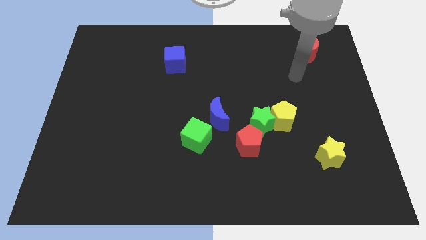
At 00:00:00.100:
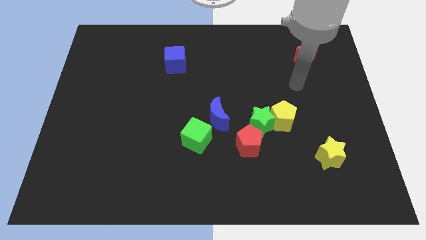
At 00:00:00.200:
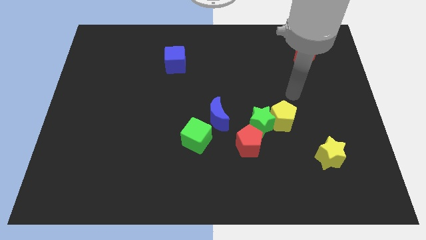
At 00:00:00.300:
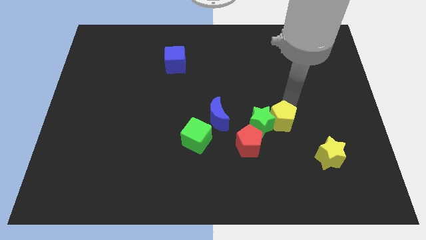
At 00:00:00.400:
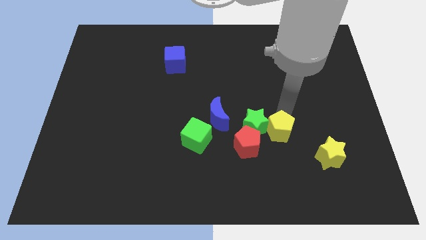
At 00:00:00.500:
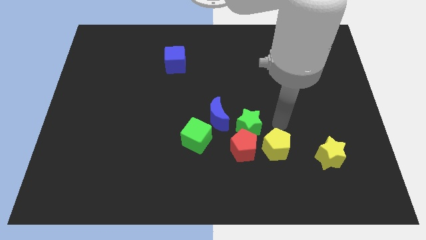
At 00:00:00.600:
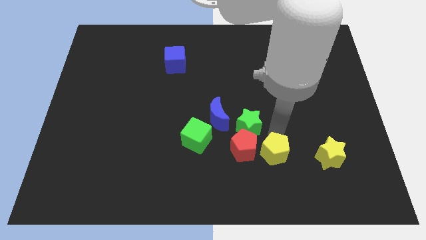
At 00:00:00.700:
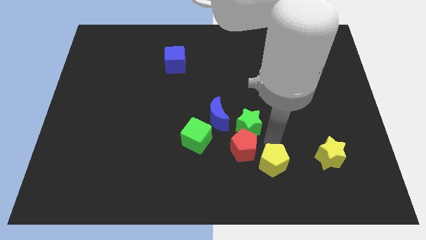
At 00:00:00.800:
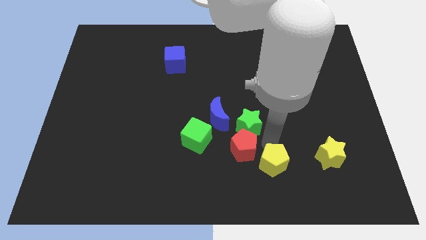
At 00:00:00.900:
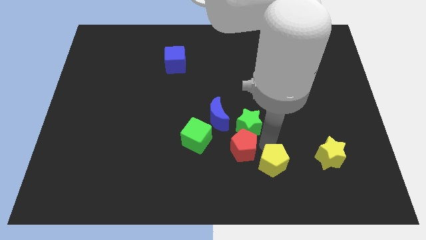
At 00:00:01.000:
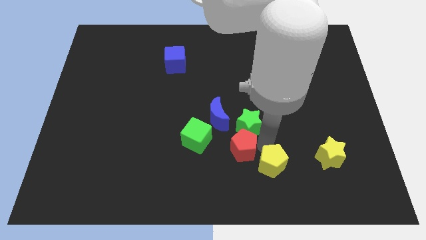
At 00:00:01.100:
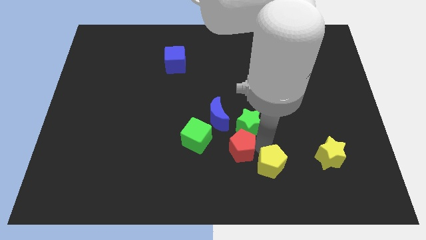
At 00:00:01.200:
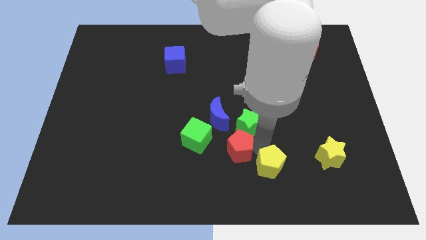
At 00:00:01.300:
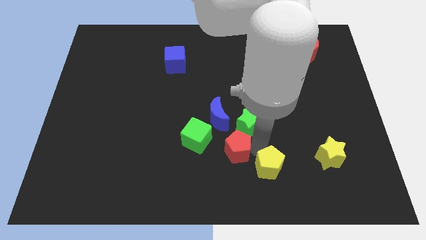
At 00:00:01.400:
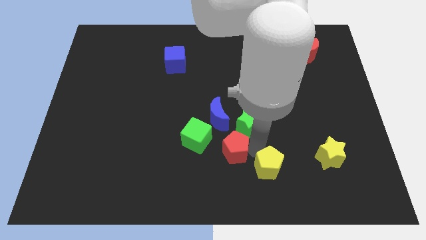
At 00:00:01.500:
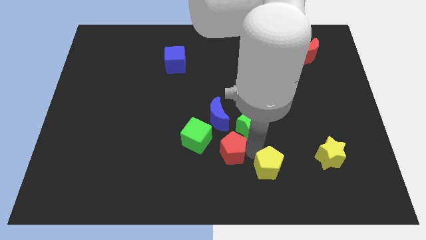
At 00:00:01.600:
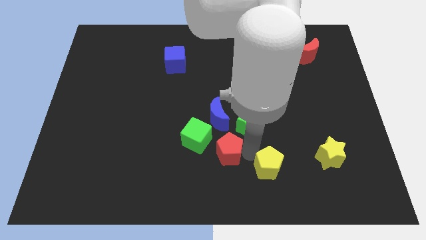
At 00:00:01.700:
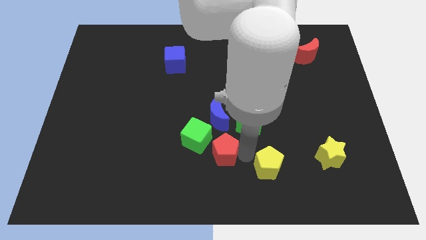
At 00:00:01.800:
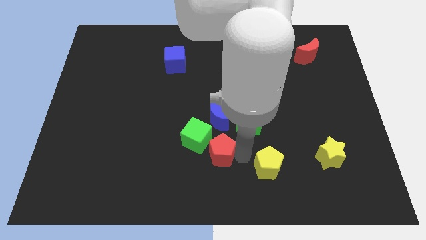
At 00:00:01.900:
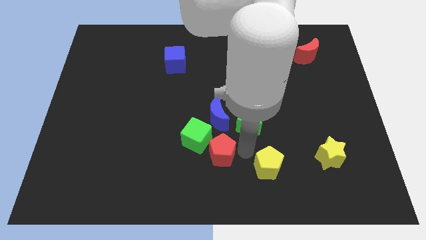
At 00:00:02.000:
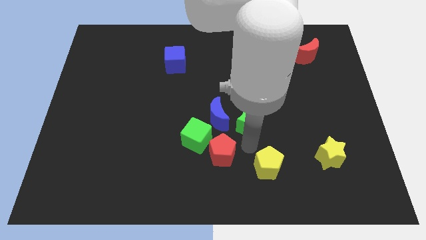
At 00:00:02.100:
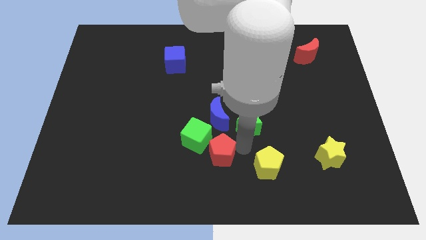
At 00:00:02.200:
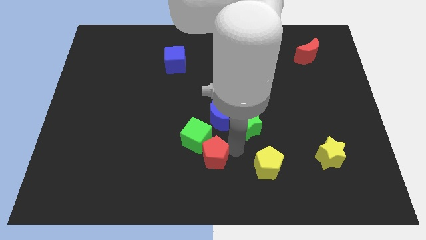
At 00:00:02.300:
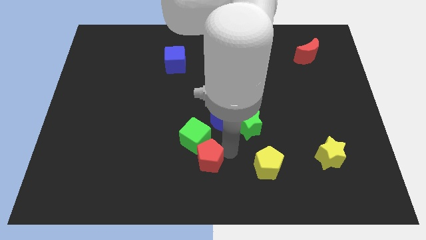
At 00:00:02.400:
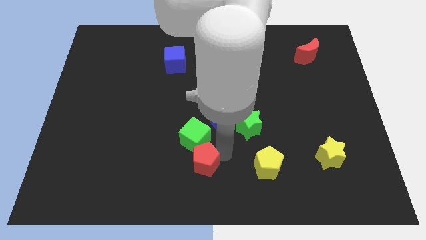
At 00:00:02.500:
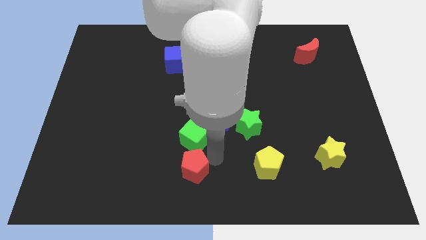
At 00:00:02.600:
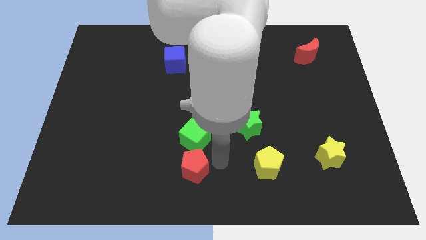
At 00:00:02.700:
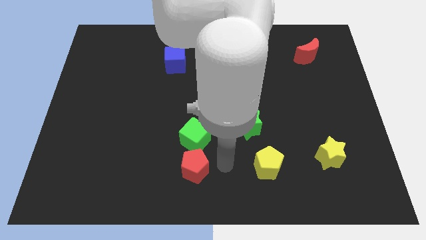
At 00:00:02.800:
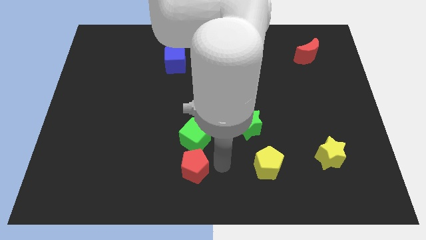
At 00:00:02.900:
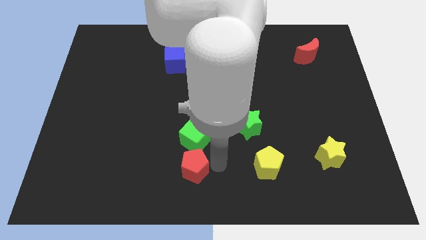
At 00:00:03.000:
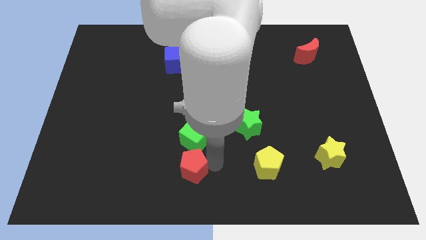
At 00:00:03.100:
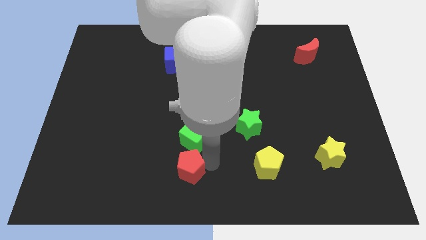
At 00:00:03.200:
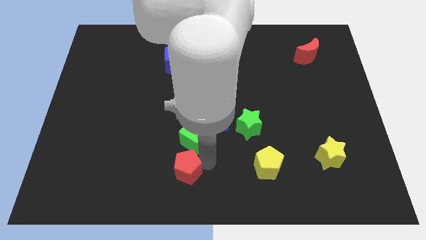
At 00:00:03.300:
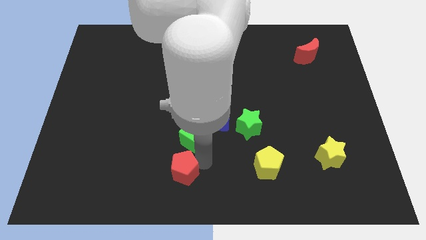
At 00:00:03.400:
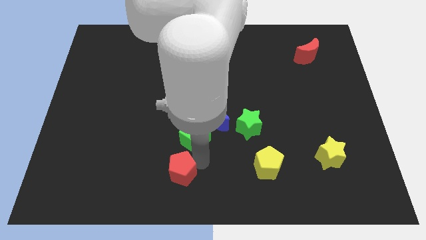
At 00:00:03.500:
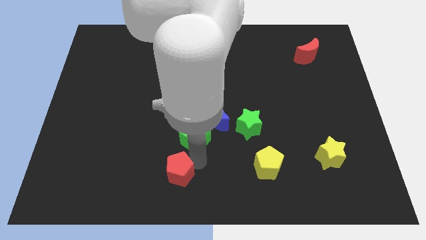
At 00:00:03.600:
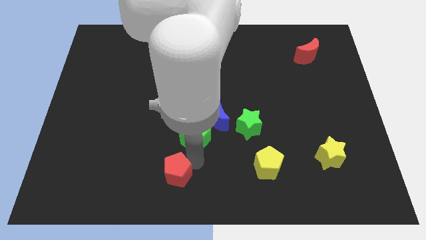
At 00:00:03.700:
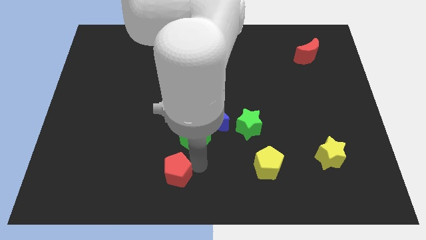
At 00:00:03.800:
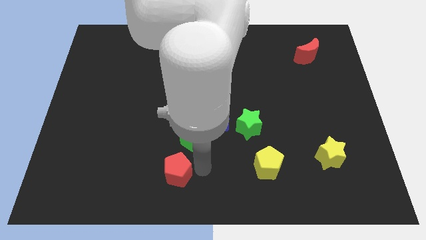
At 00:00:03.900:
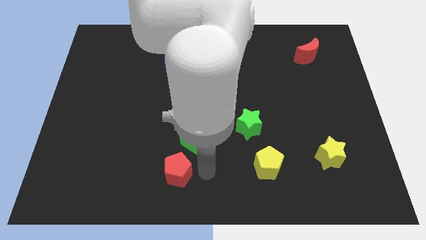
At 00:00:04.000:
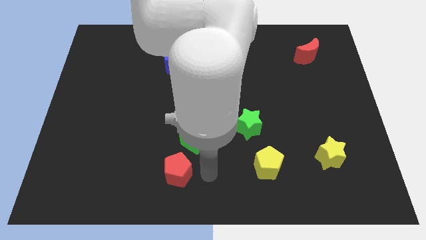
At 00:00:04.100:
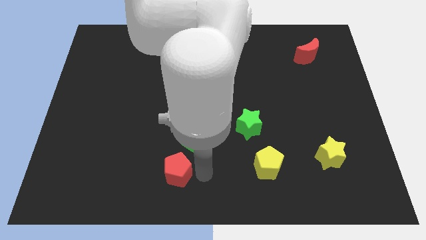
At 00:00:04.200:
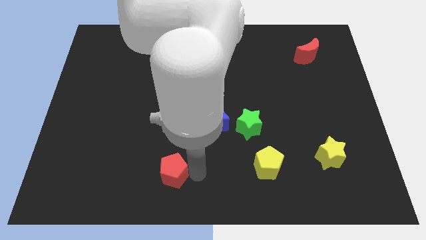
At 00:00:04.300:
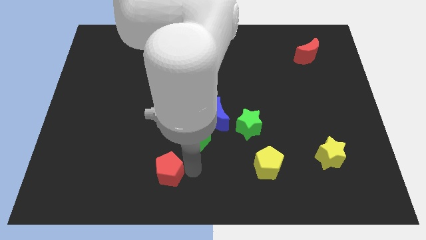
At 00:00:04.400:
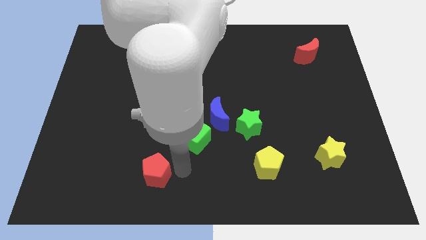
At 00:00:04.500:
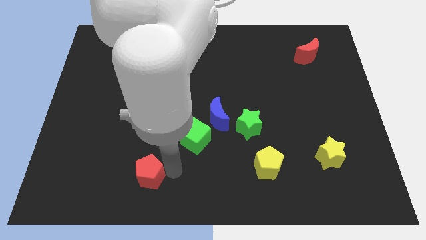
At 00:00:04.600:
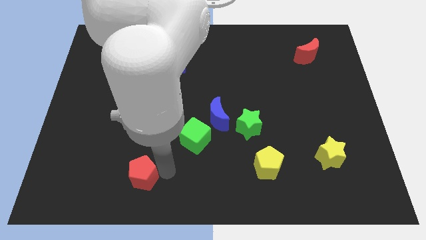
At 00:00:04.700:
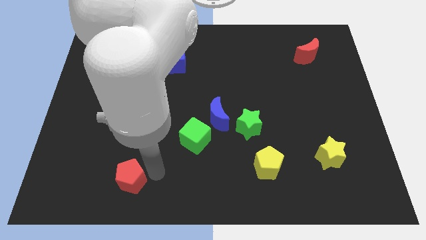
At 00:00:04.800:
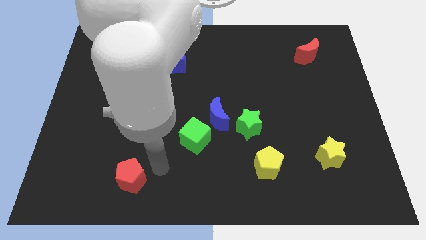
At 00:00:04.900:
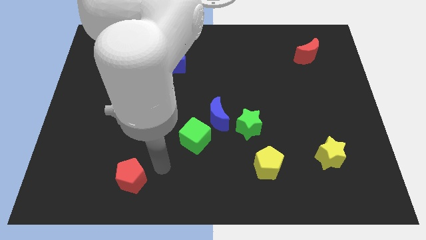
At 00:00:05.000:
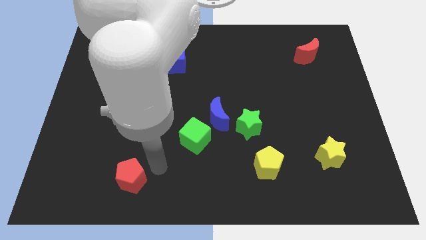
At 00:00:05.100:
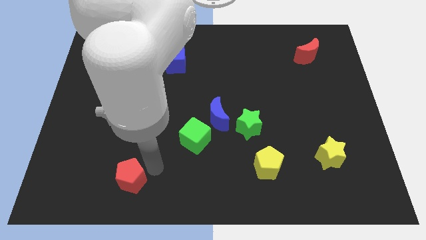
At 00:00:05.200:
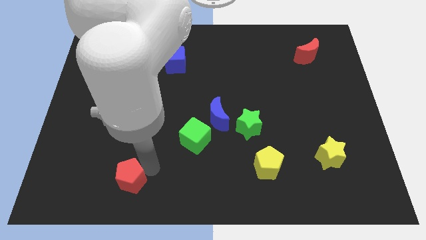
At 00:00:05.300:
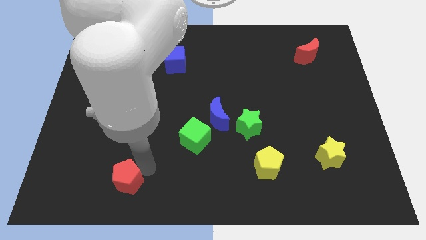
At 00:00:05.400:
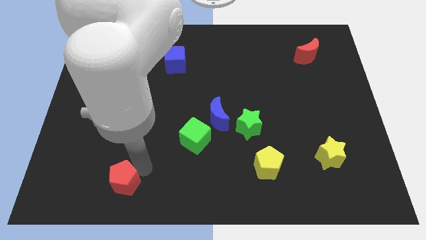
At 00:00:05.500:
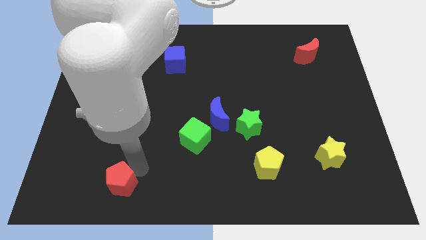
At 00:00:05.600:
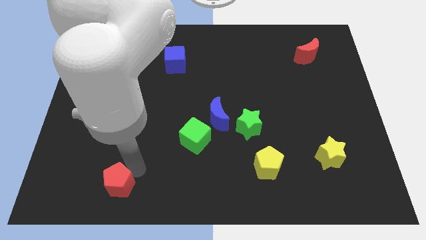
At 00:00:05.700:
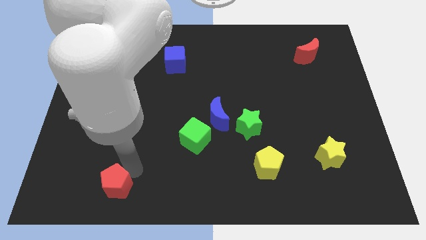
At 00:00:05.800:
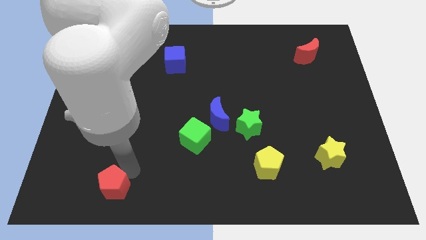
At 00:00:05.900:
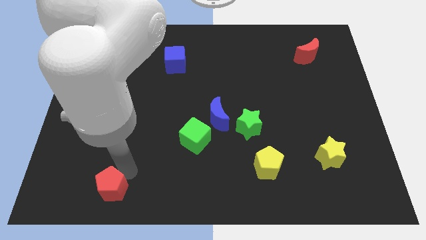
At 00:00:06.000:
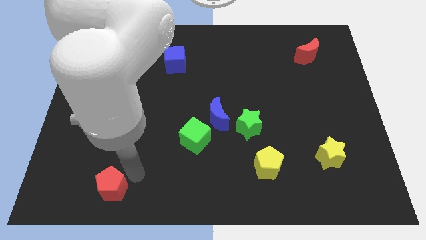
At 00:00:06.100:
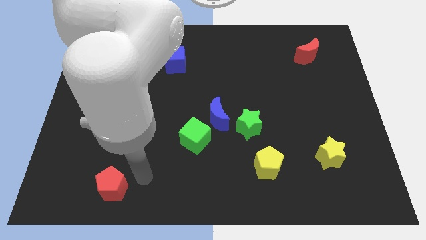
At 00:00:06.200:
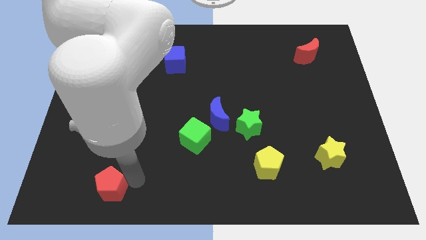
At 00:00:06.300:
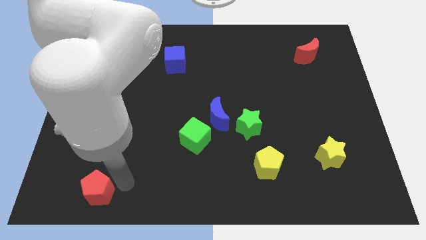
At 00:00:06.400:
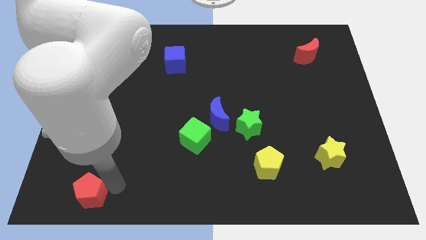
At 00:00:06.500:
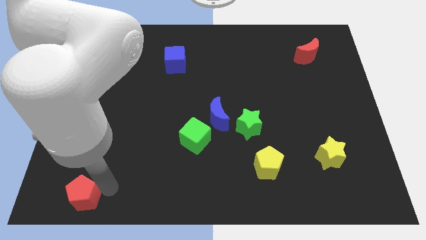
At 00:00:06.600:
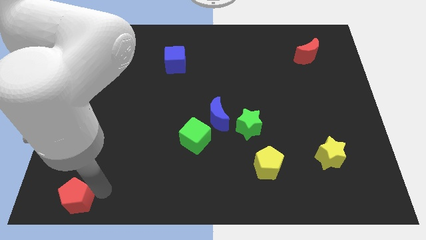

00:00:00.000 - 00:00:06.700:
slide the red pentagon to the bottom left of the board
